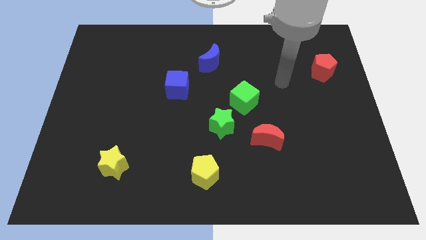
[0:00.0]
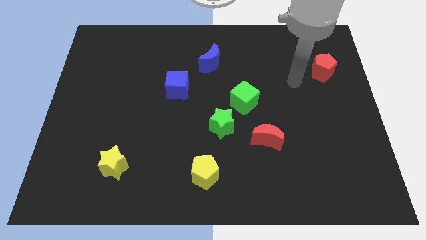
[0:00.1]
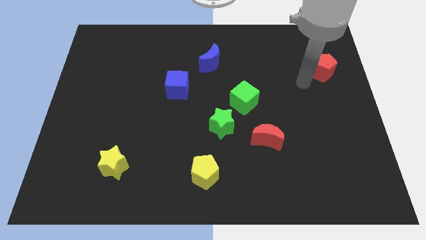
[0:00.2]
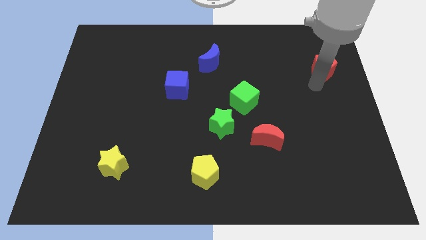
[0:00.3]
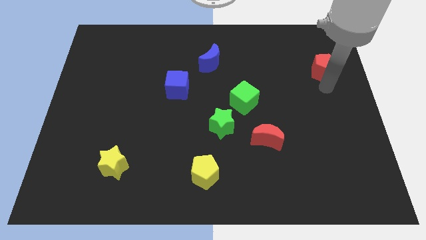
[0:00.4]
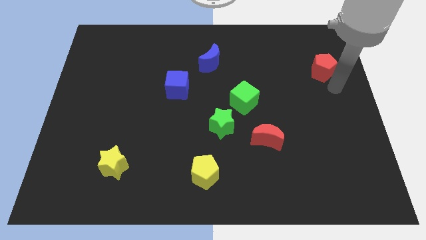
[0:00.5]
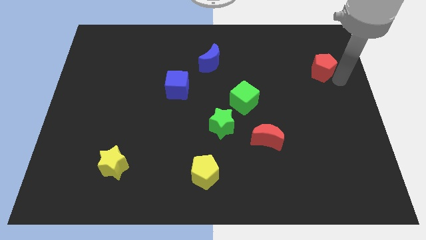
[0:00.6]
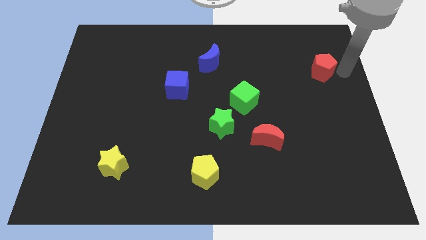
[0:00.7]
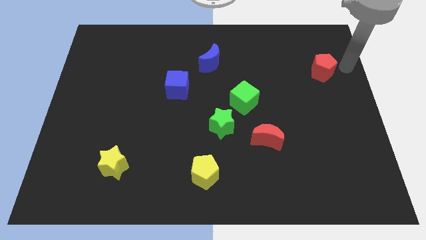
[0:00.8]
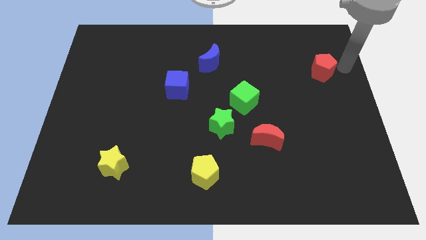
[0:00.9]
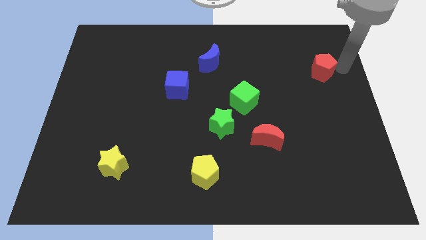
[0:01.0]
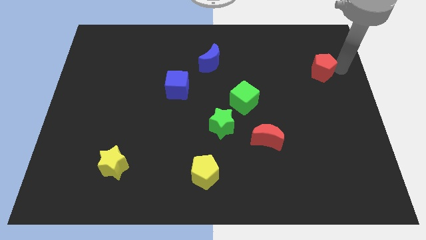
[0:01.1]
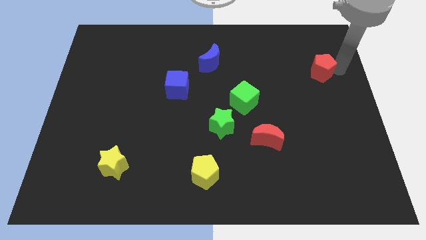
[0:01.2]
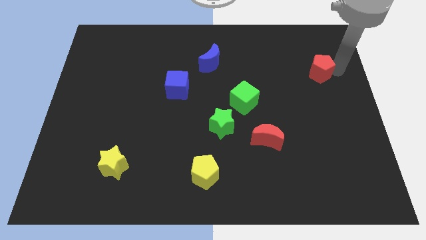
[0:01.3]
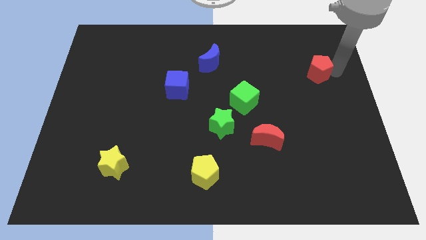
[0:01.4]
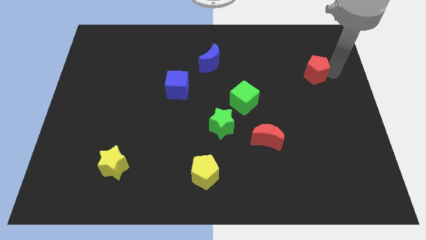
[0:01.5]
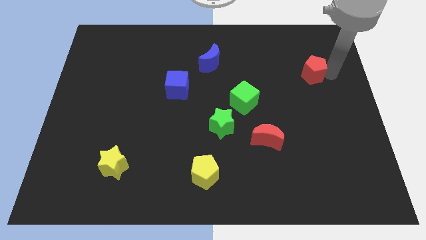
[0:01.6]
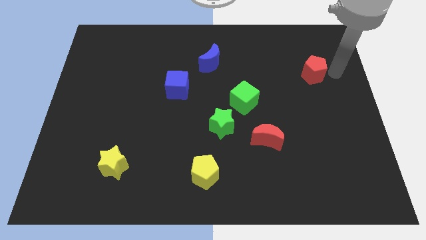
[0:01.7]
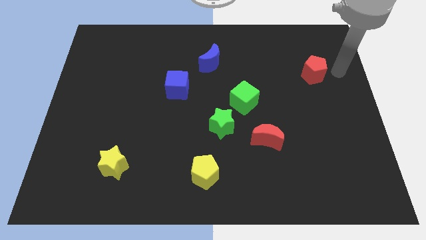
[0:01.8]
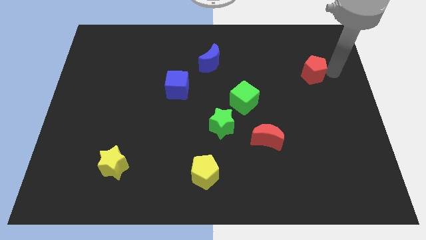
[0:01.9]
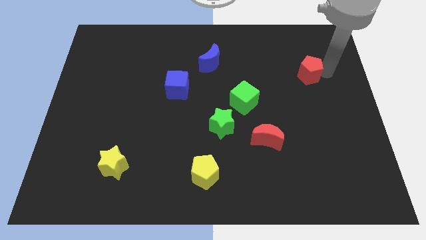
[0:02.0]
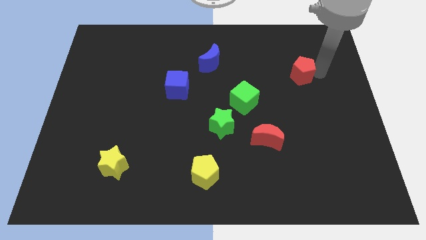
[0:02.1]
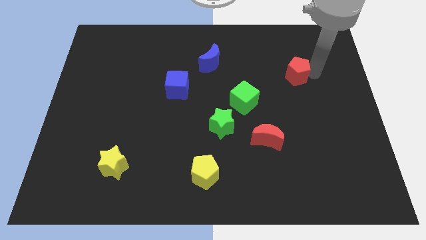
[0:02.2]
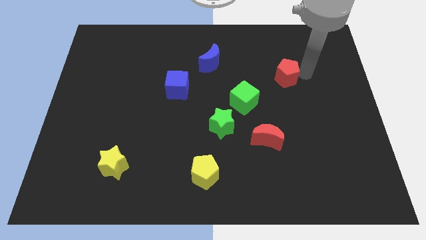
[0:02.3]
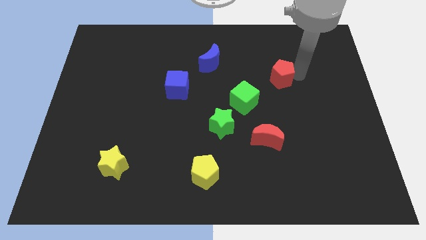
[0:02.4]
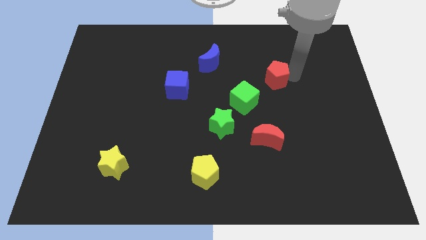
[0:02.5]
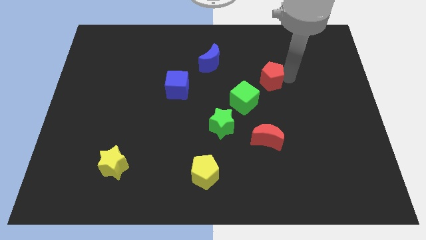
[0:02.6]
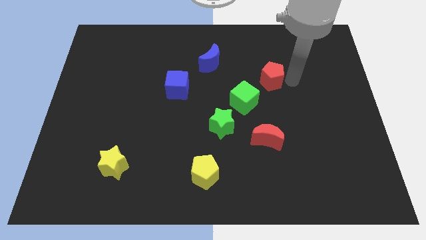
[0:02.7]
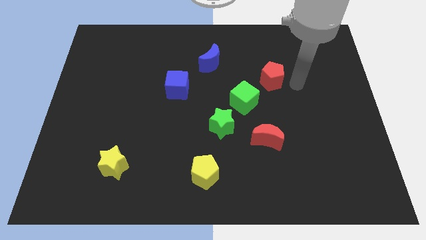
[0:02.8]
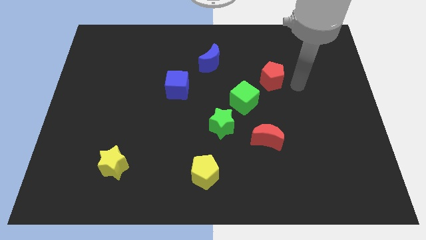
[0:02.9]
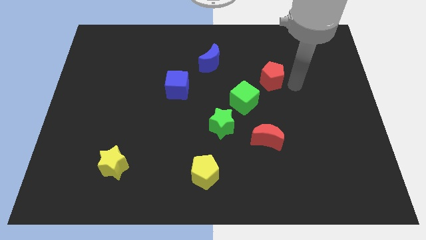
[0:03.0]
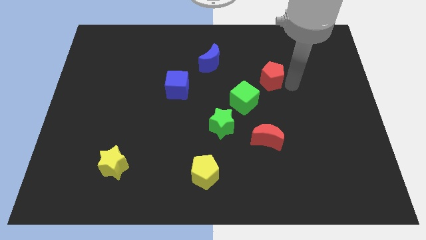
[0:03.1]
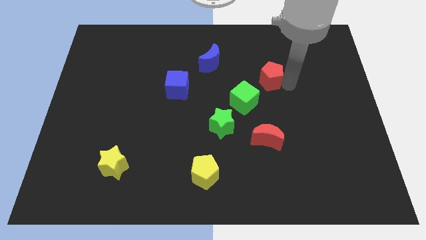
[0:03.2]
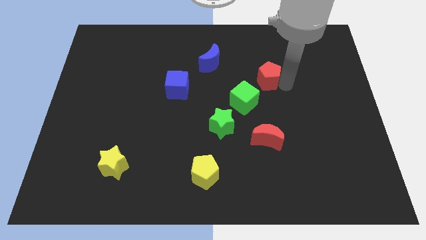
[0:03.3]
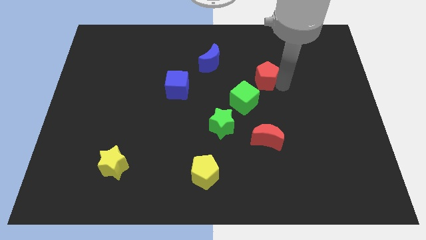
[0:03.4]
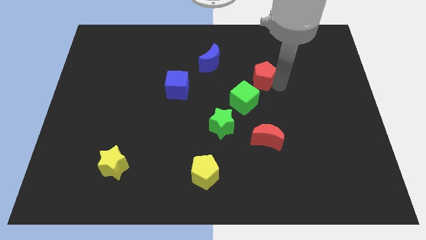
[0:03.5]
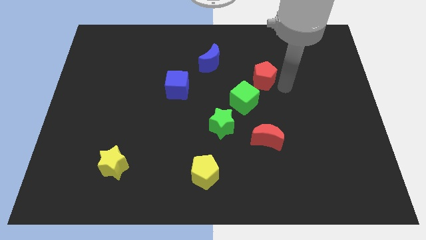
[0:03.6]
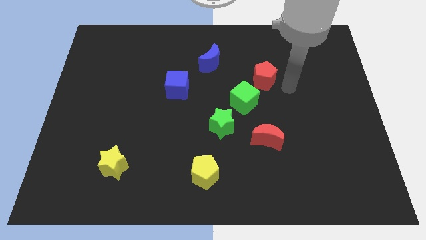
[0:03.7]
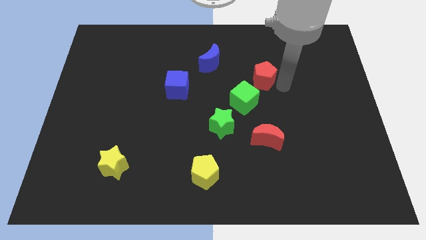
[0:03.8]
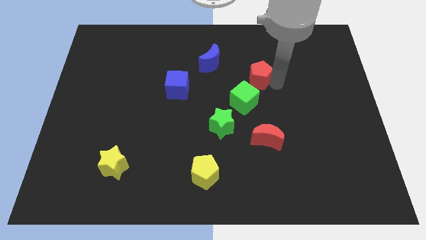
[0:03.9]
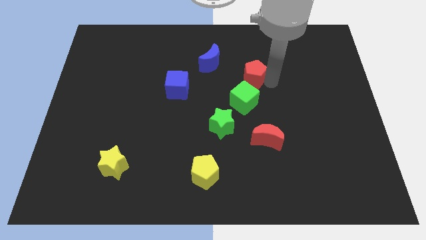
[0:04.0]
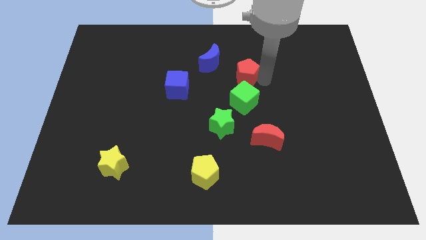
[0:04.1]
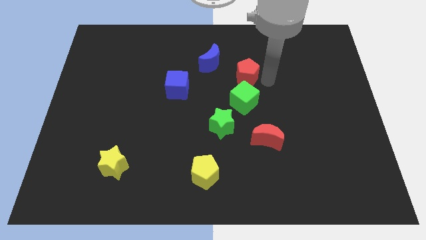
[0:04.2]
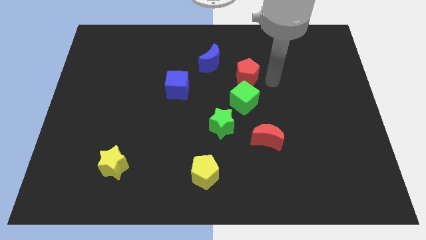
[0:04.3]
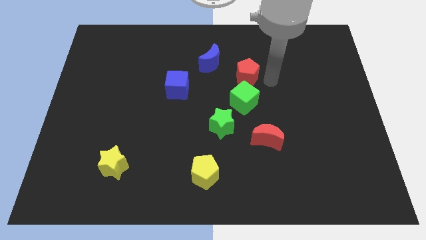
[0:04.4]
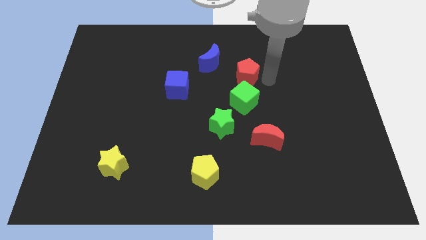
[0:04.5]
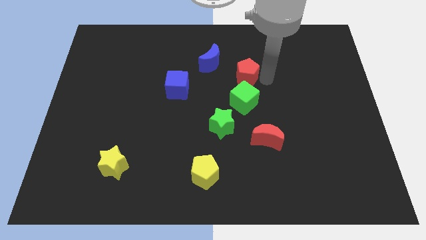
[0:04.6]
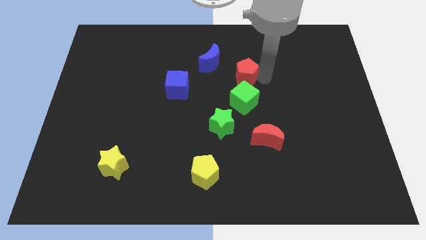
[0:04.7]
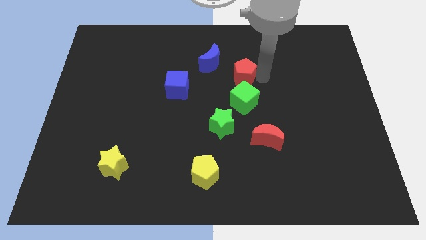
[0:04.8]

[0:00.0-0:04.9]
move the red pentagon left

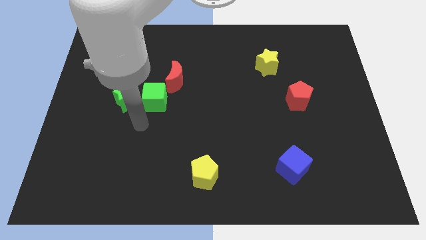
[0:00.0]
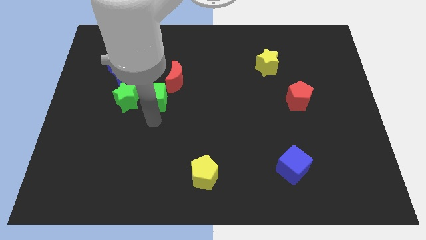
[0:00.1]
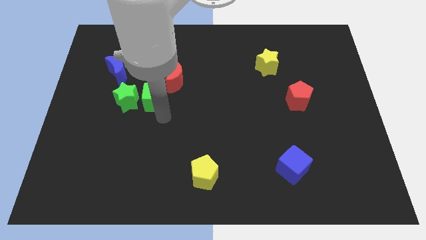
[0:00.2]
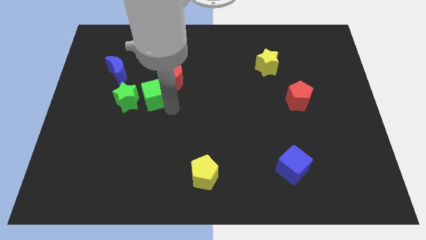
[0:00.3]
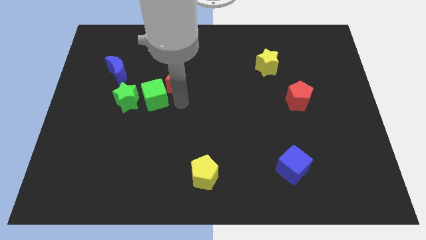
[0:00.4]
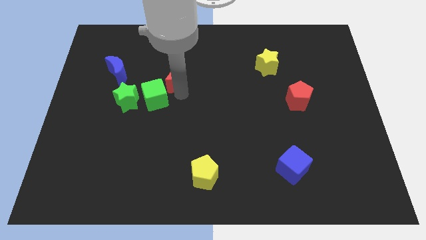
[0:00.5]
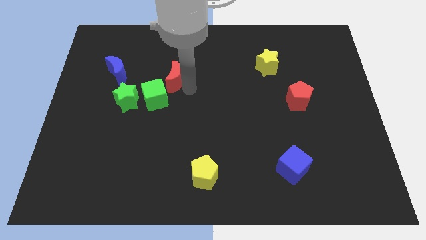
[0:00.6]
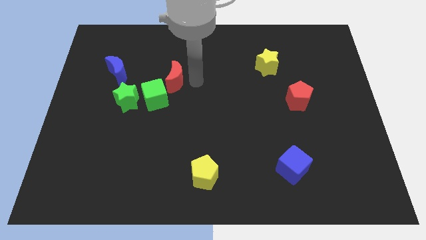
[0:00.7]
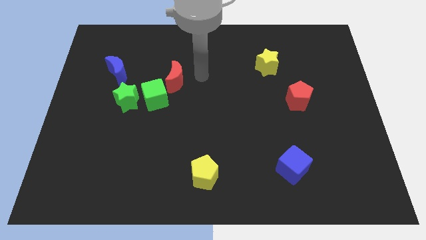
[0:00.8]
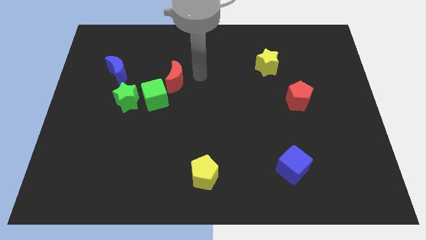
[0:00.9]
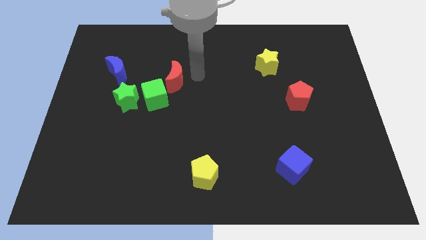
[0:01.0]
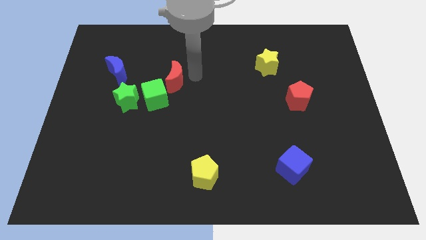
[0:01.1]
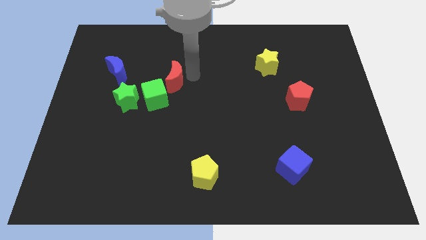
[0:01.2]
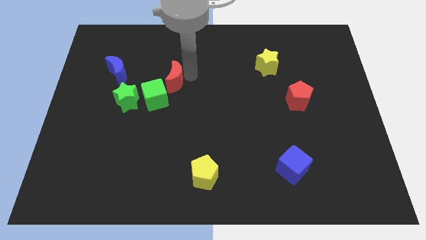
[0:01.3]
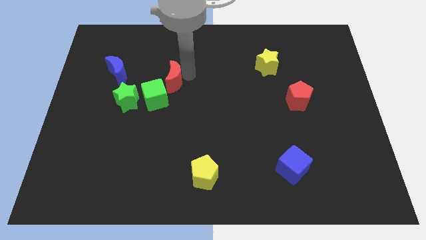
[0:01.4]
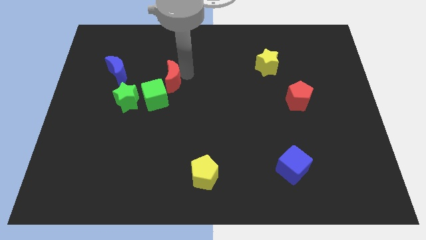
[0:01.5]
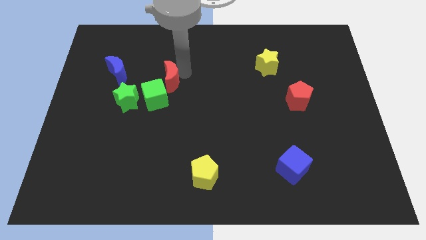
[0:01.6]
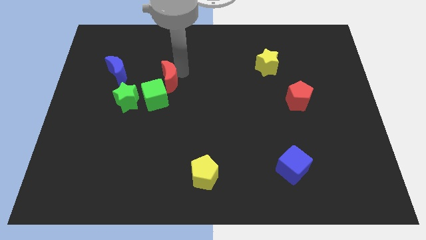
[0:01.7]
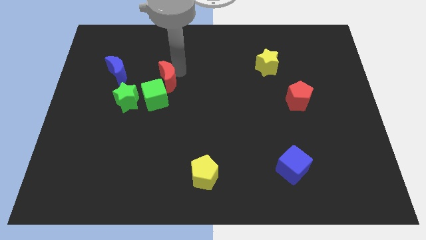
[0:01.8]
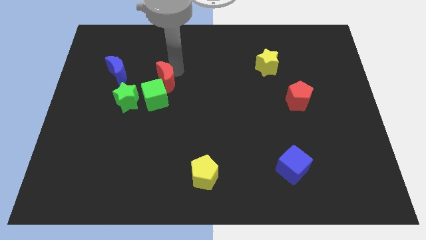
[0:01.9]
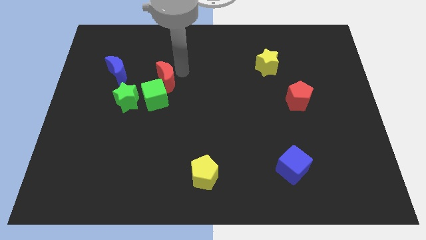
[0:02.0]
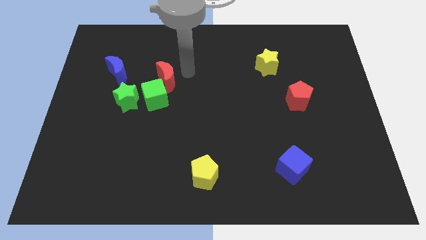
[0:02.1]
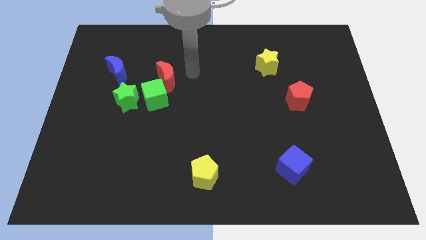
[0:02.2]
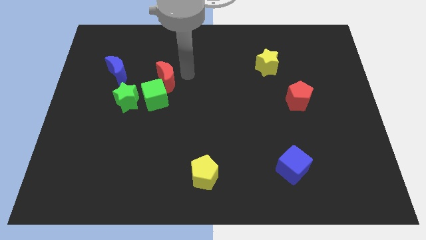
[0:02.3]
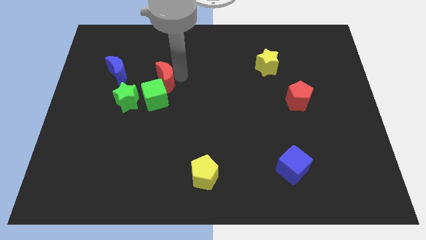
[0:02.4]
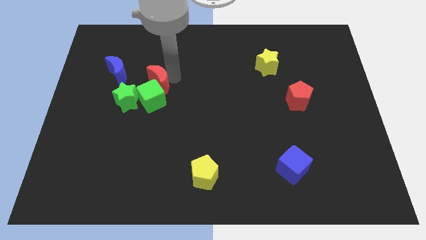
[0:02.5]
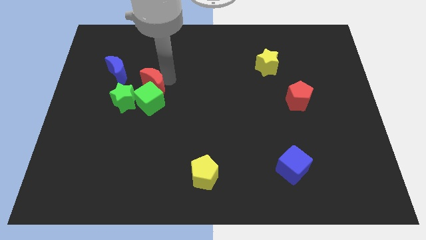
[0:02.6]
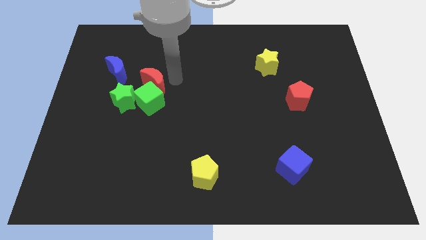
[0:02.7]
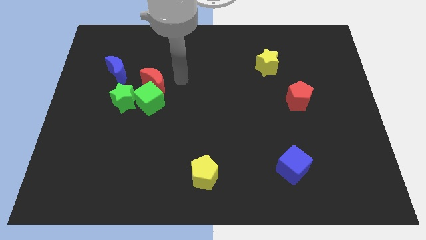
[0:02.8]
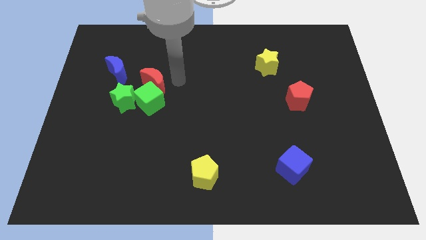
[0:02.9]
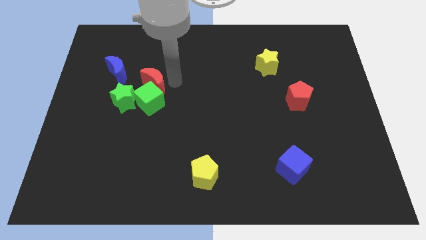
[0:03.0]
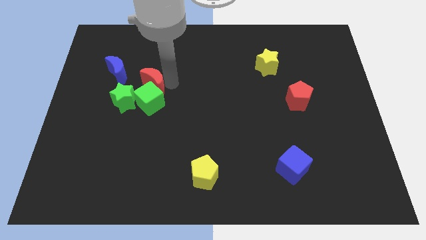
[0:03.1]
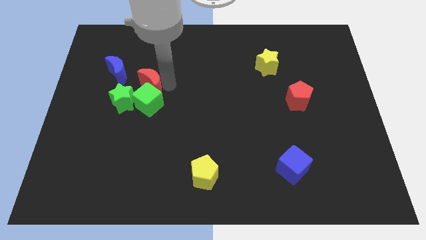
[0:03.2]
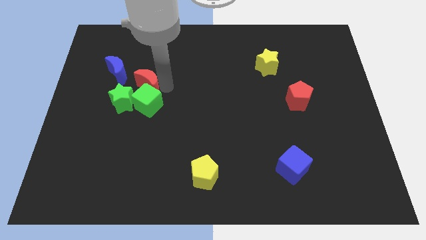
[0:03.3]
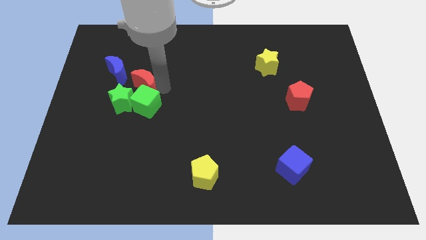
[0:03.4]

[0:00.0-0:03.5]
move the red moon left a little bit
